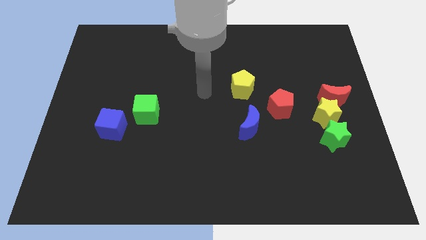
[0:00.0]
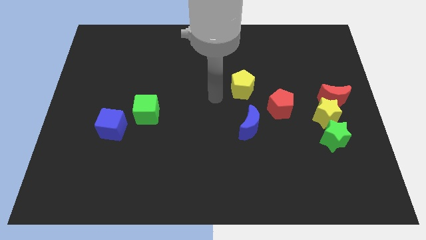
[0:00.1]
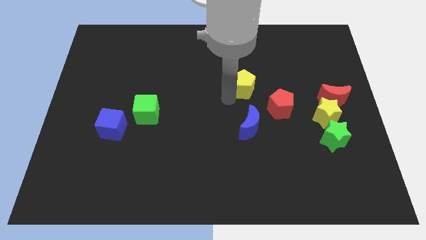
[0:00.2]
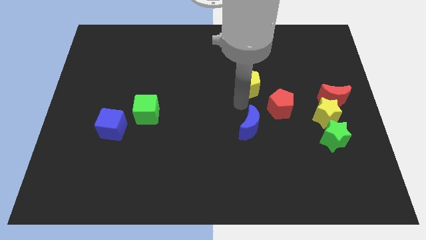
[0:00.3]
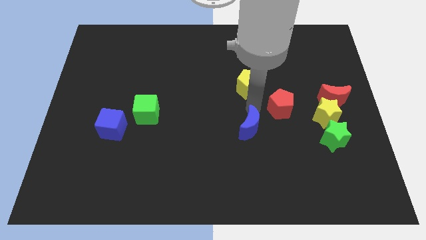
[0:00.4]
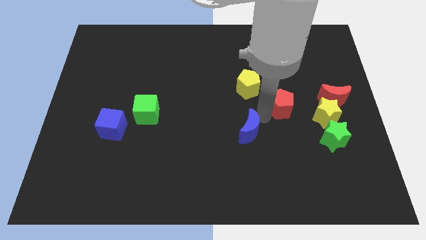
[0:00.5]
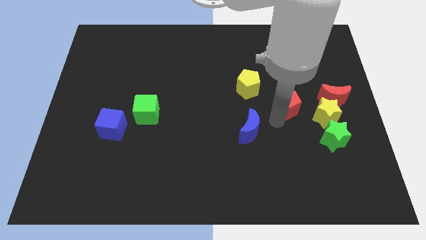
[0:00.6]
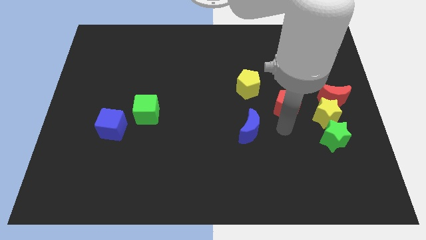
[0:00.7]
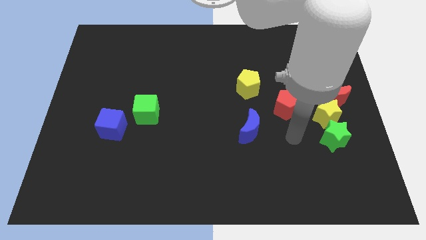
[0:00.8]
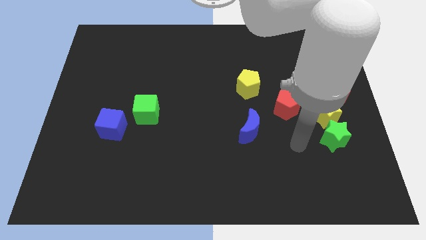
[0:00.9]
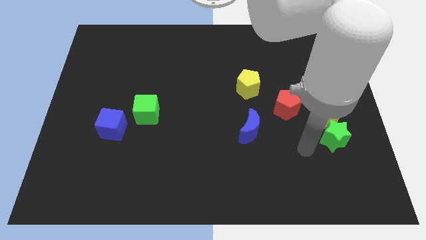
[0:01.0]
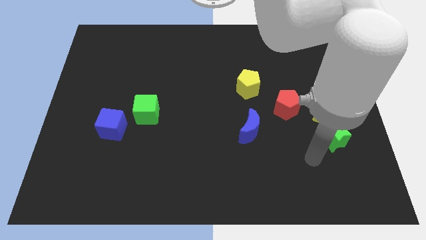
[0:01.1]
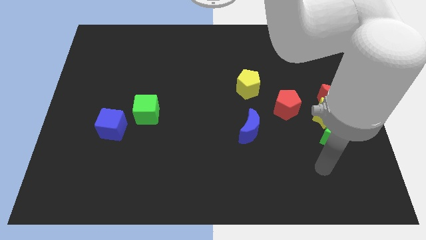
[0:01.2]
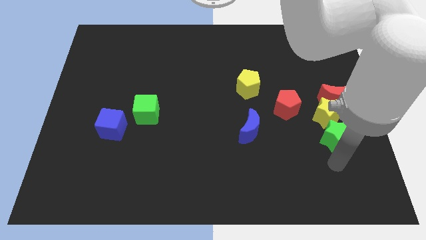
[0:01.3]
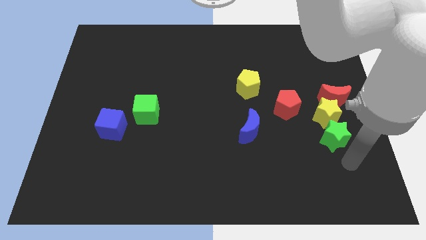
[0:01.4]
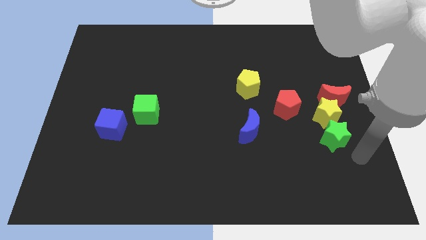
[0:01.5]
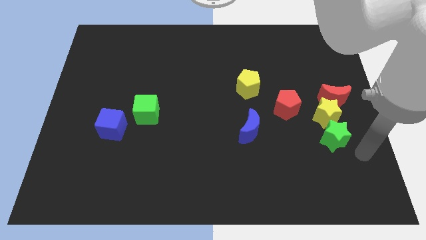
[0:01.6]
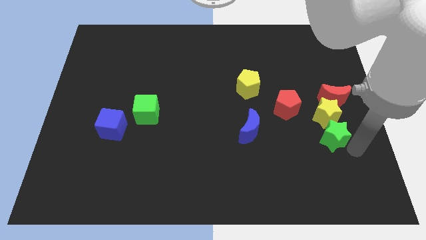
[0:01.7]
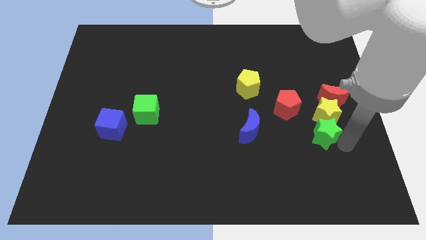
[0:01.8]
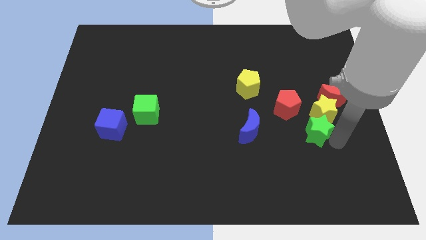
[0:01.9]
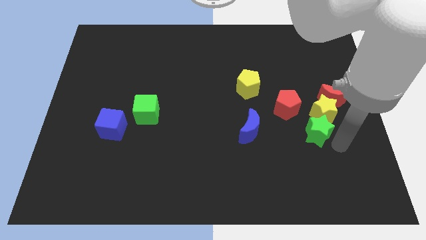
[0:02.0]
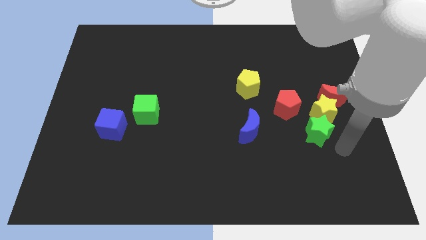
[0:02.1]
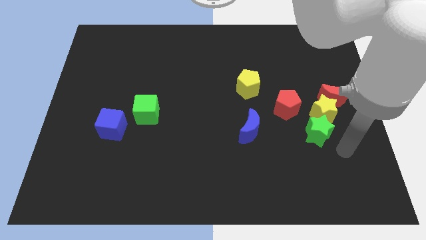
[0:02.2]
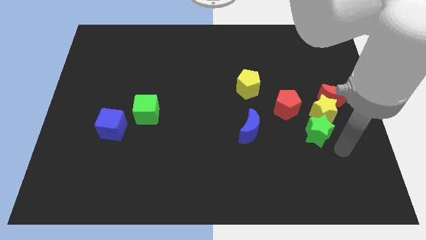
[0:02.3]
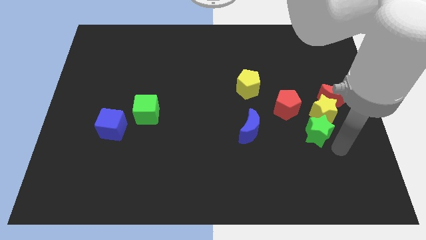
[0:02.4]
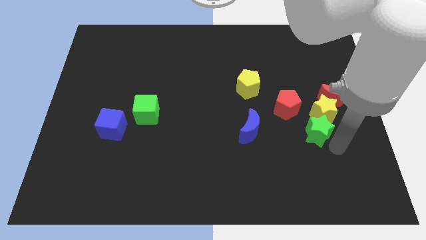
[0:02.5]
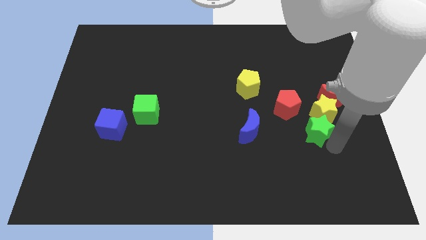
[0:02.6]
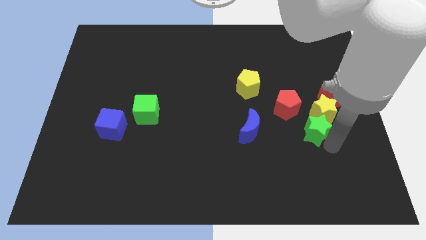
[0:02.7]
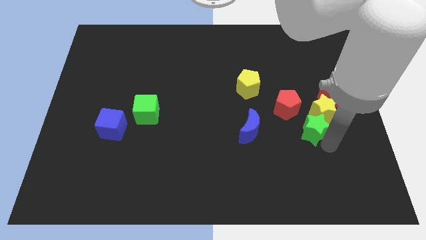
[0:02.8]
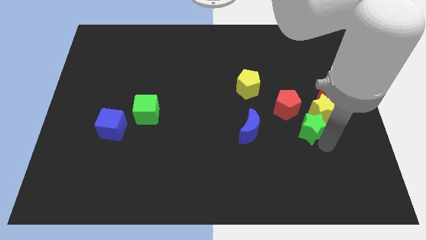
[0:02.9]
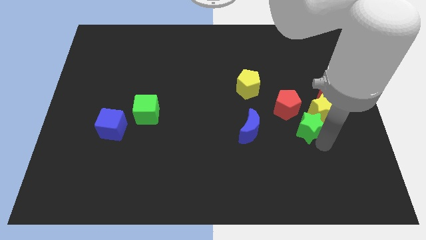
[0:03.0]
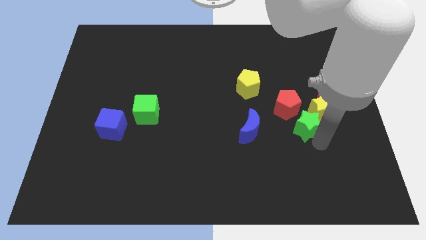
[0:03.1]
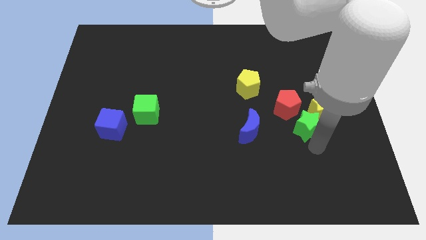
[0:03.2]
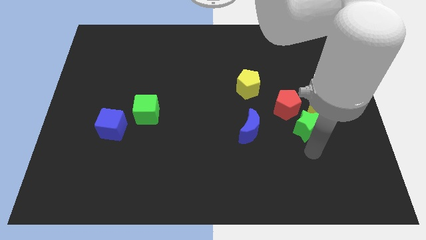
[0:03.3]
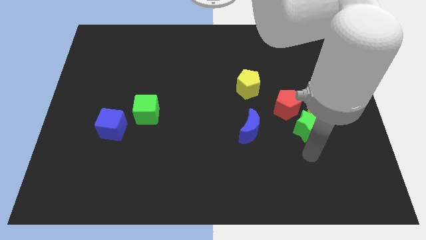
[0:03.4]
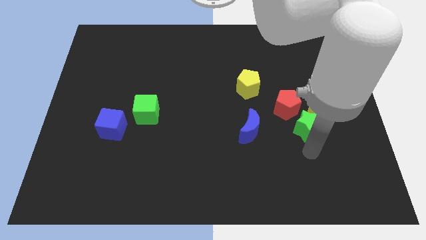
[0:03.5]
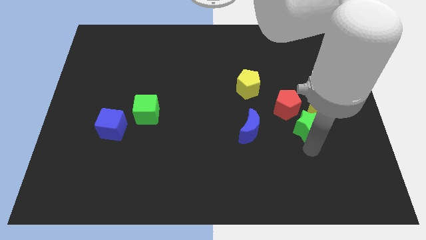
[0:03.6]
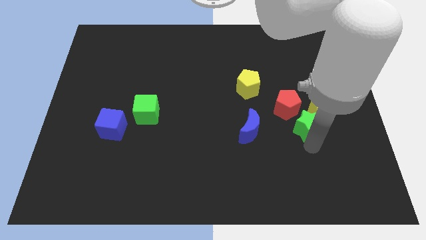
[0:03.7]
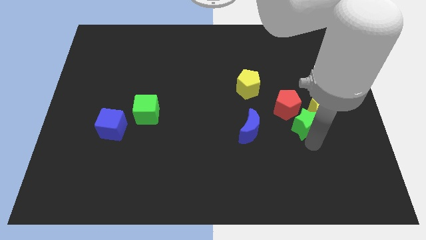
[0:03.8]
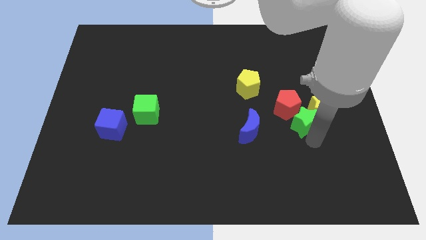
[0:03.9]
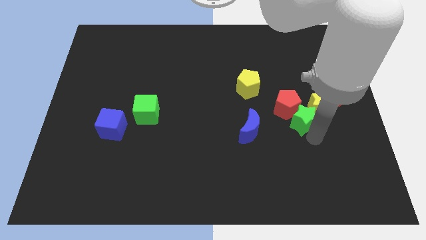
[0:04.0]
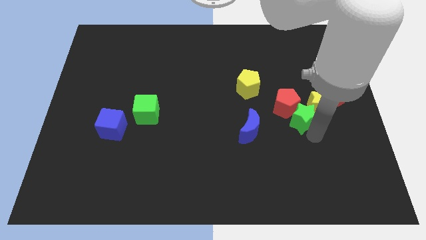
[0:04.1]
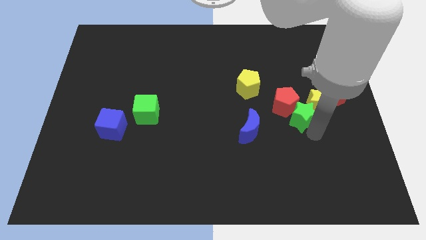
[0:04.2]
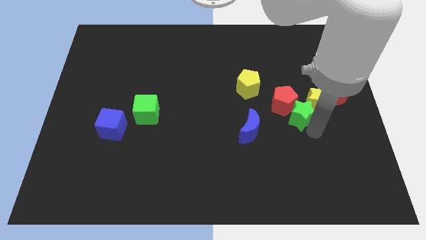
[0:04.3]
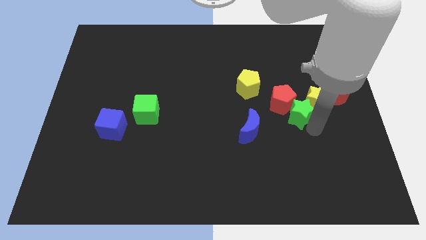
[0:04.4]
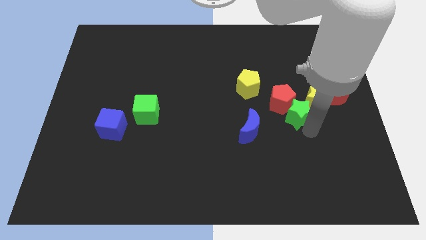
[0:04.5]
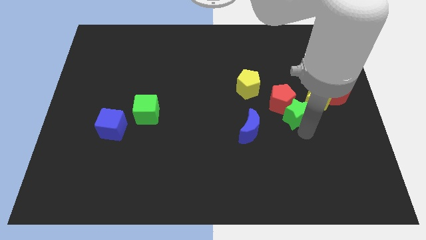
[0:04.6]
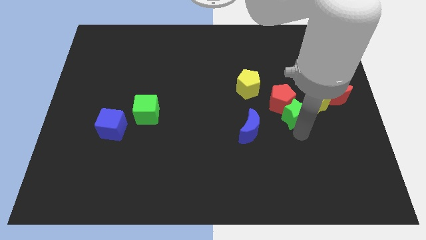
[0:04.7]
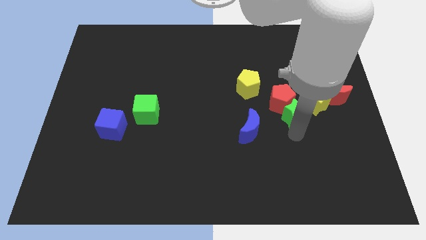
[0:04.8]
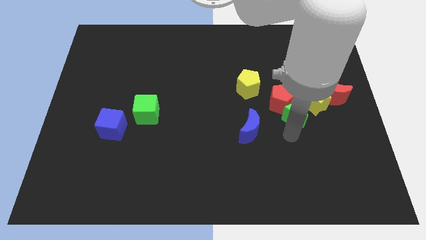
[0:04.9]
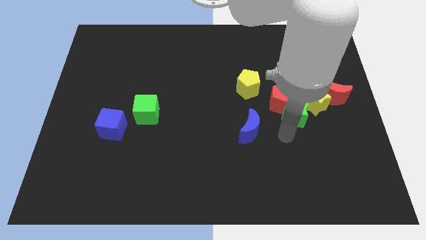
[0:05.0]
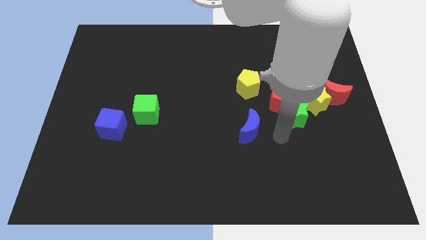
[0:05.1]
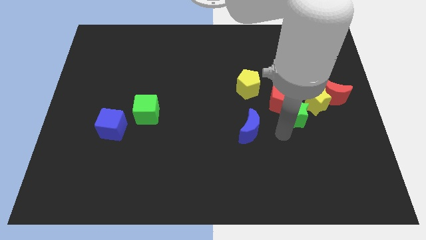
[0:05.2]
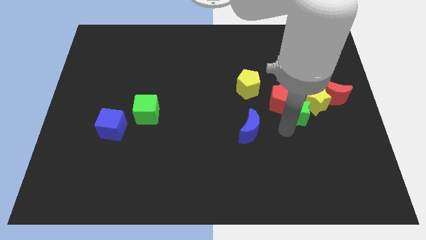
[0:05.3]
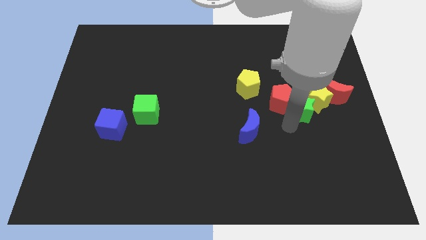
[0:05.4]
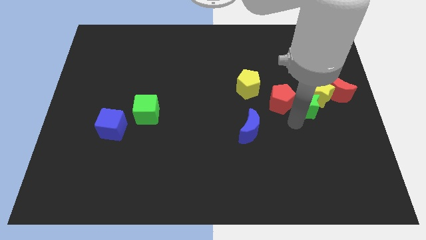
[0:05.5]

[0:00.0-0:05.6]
push the green star upwards slightly

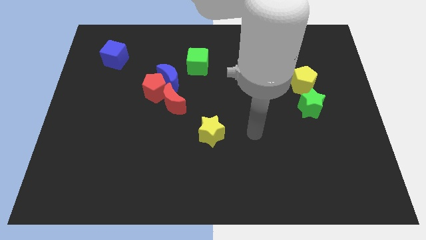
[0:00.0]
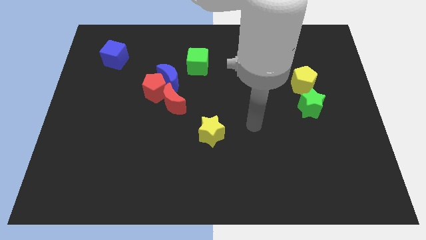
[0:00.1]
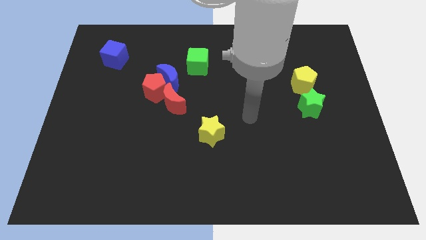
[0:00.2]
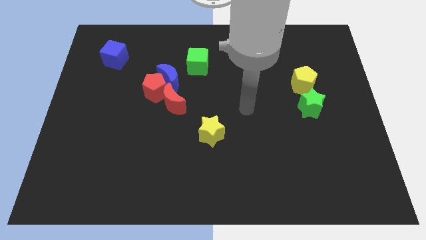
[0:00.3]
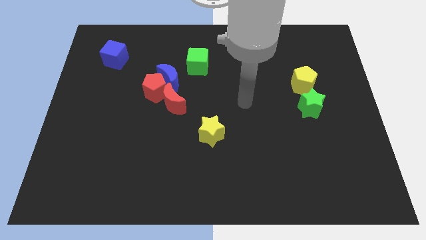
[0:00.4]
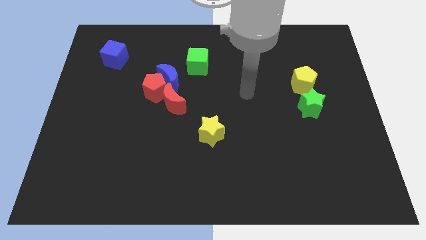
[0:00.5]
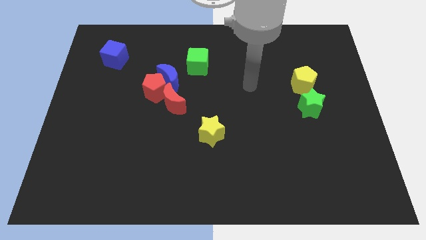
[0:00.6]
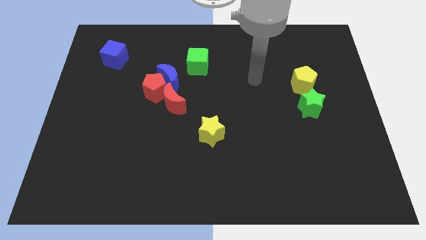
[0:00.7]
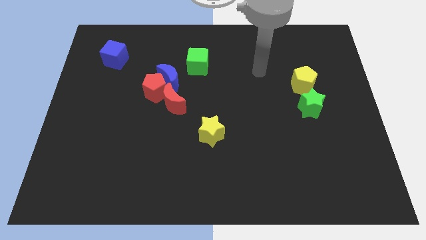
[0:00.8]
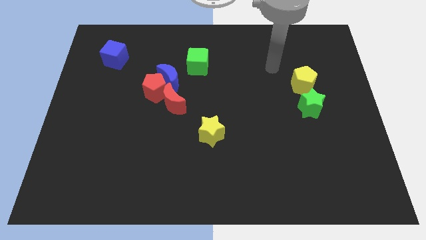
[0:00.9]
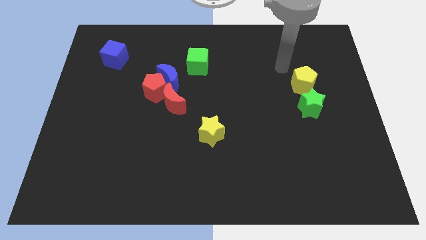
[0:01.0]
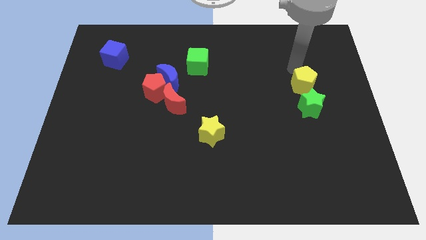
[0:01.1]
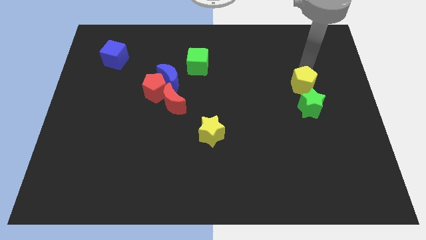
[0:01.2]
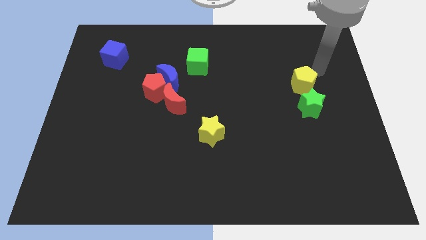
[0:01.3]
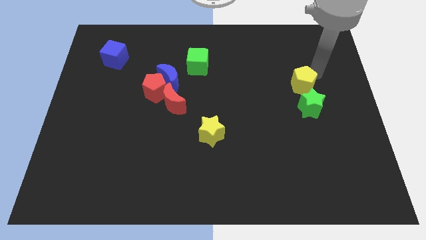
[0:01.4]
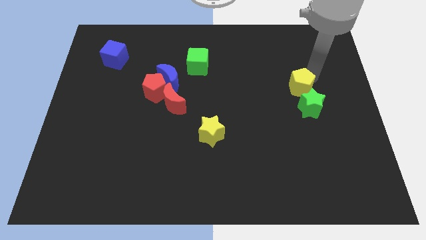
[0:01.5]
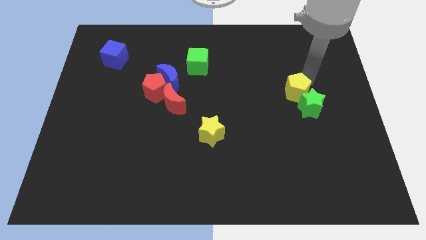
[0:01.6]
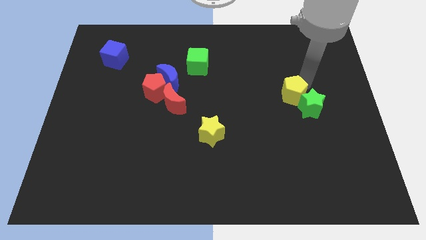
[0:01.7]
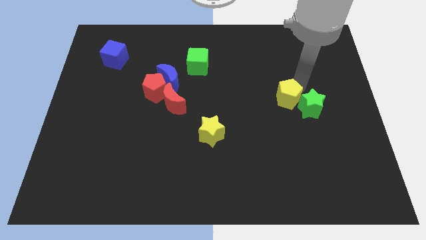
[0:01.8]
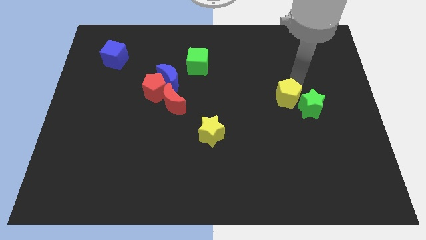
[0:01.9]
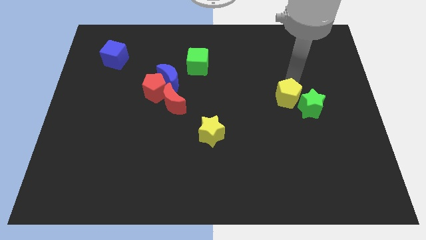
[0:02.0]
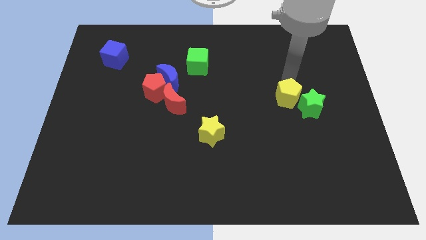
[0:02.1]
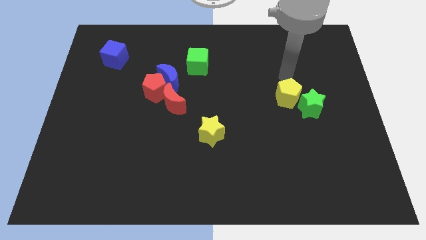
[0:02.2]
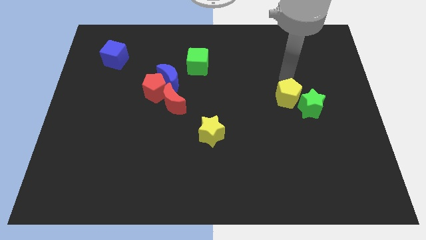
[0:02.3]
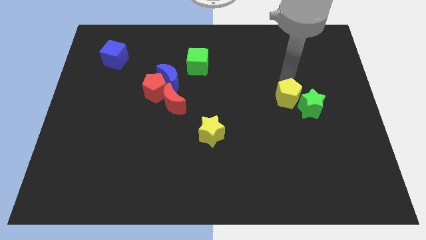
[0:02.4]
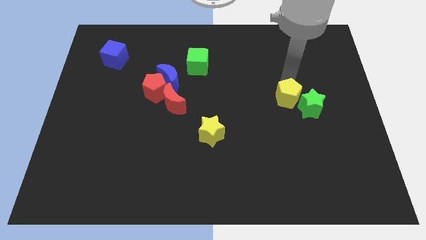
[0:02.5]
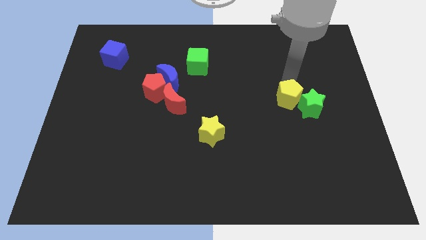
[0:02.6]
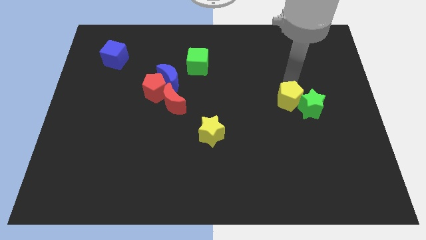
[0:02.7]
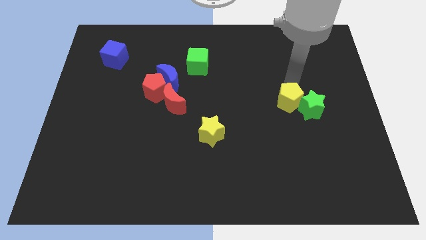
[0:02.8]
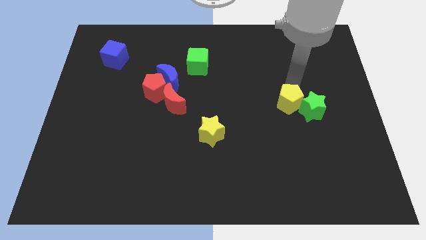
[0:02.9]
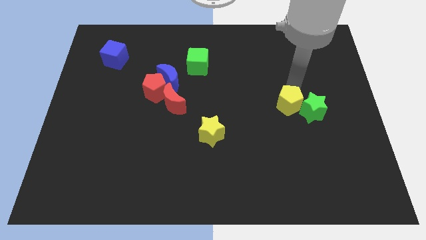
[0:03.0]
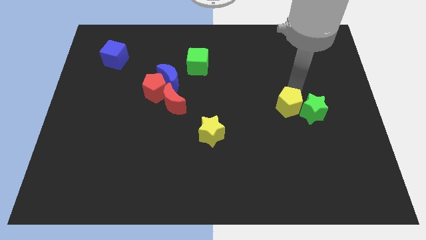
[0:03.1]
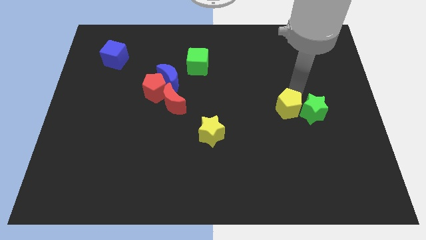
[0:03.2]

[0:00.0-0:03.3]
slightly slide the yellow pentagon down
